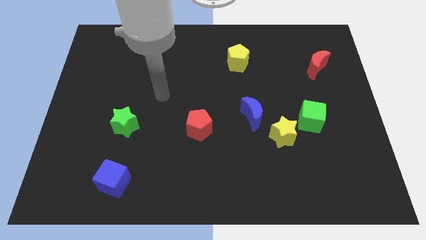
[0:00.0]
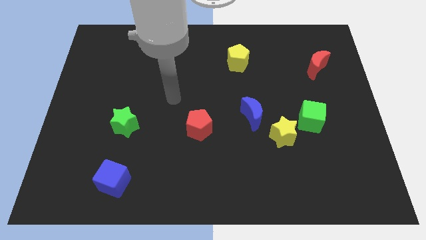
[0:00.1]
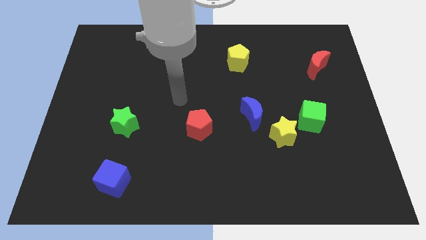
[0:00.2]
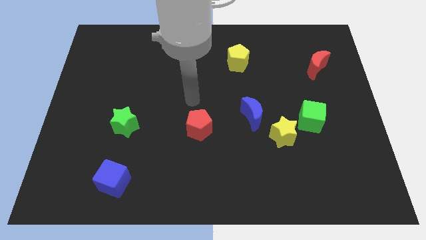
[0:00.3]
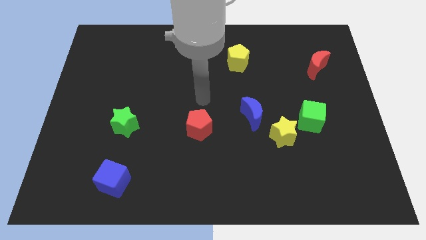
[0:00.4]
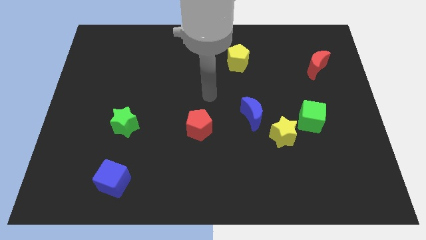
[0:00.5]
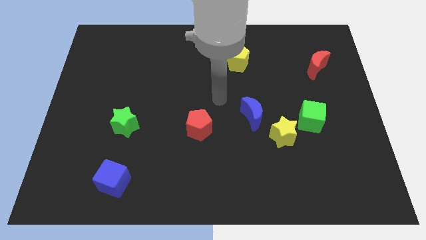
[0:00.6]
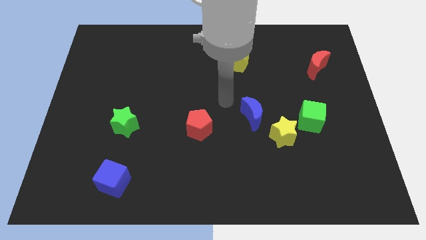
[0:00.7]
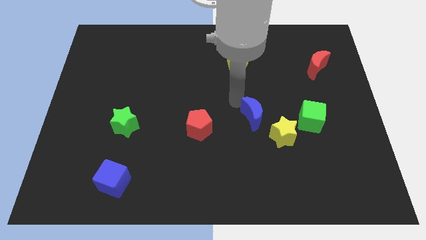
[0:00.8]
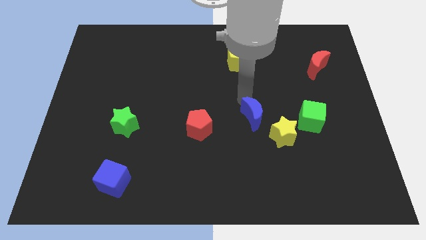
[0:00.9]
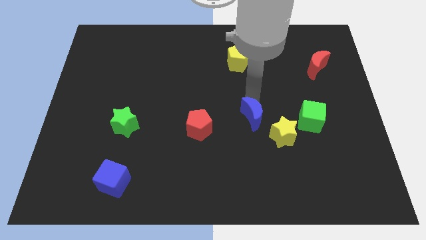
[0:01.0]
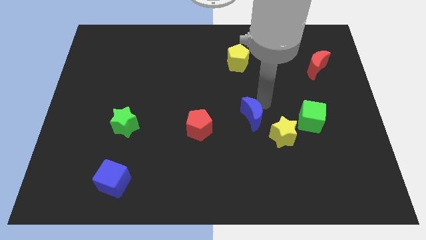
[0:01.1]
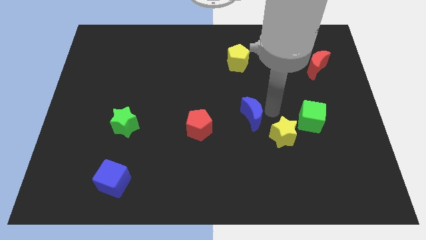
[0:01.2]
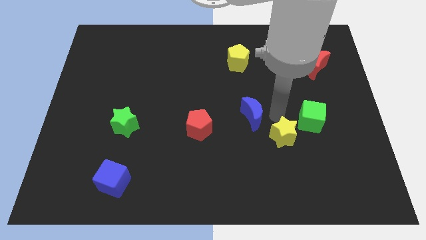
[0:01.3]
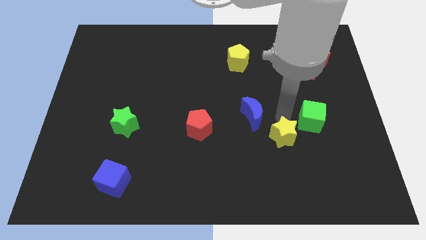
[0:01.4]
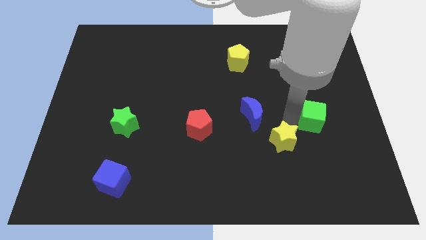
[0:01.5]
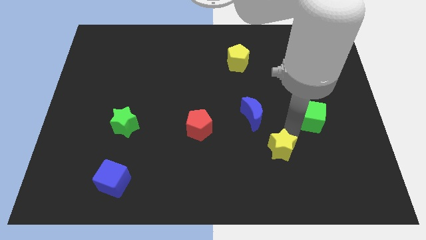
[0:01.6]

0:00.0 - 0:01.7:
separate the green cube from the yellow star

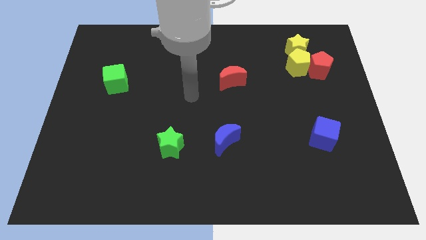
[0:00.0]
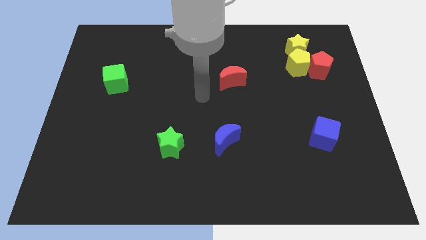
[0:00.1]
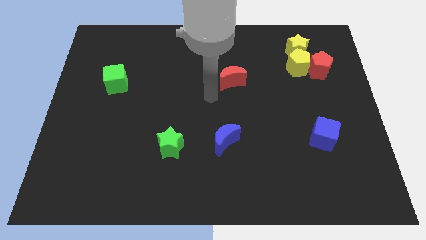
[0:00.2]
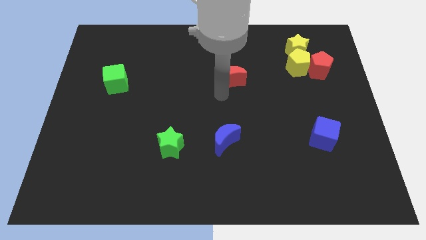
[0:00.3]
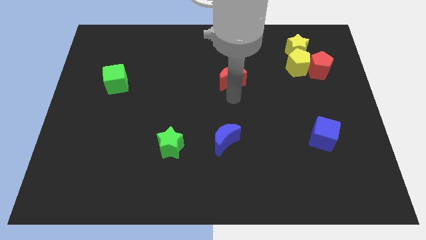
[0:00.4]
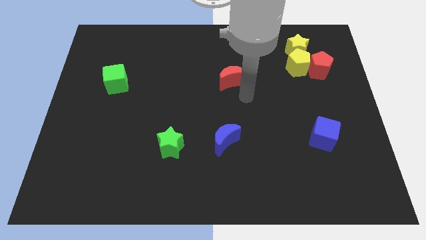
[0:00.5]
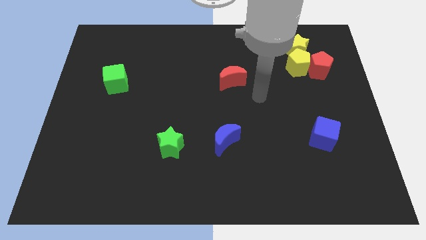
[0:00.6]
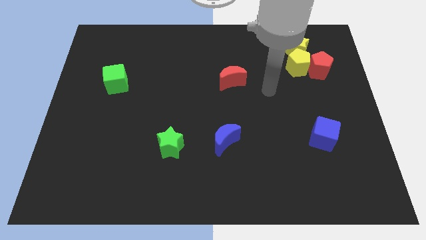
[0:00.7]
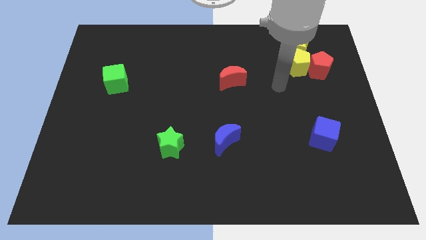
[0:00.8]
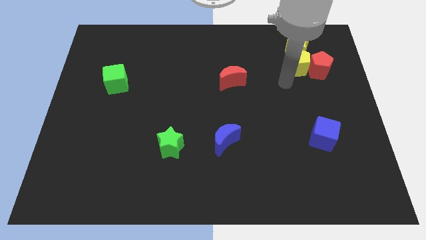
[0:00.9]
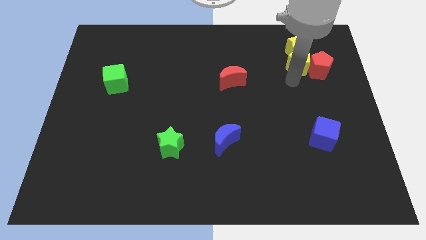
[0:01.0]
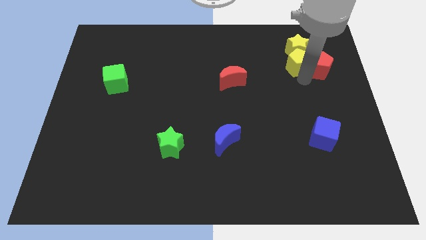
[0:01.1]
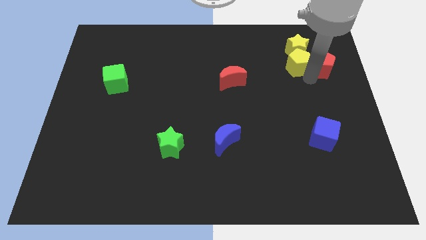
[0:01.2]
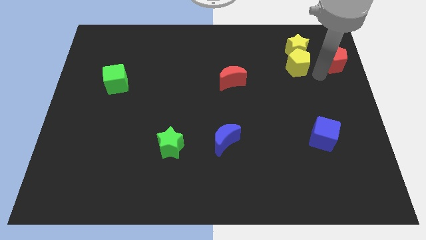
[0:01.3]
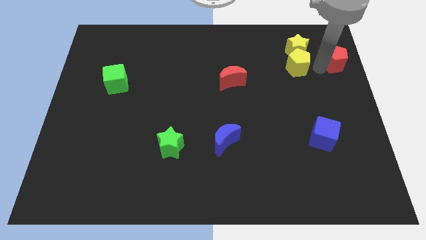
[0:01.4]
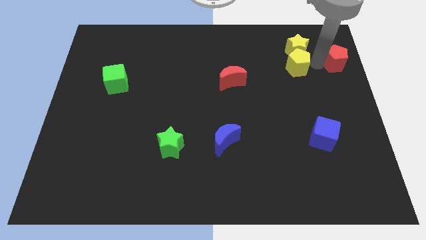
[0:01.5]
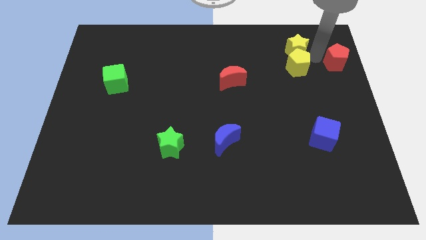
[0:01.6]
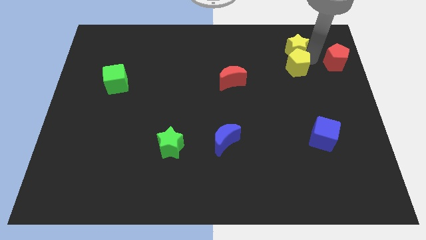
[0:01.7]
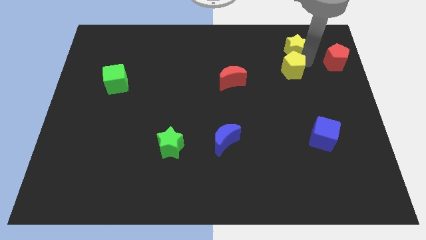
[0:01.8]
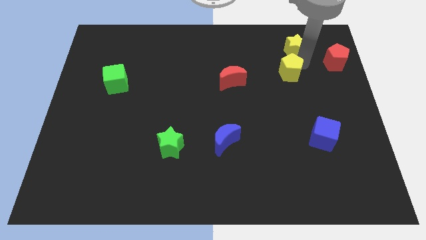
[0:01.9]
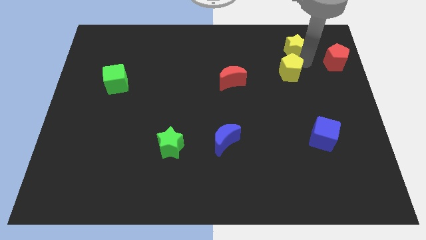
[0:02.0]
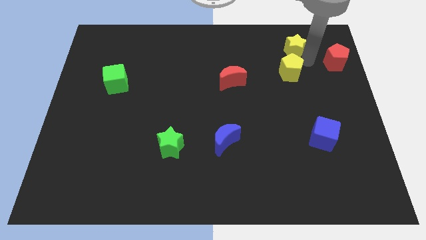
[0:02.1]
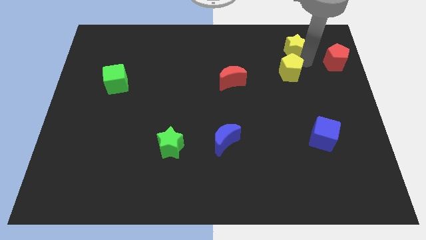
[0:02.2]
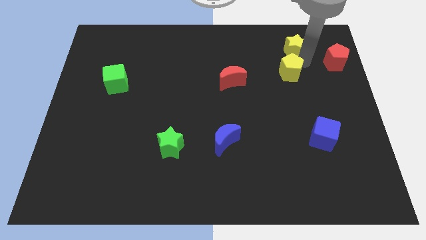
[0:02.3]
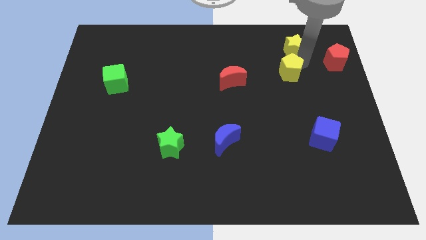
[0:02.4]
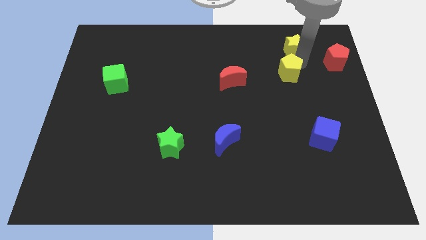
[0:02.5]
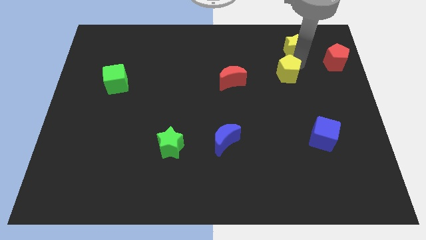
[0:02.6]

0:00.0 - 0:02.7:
move the yellow pentagon away from the yellow star and red pentagon

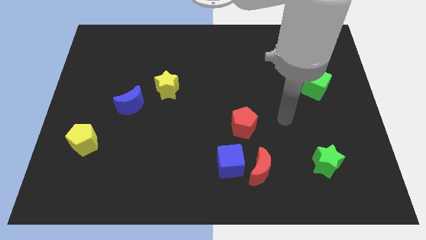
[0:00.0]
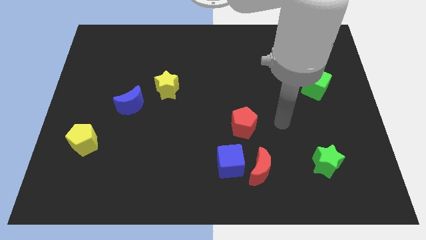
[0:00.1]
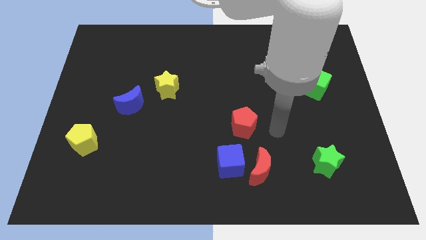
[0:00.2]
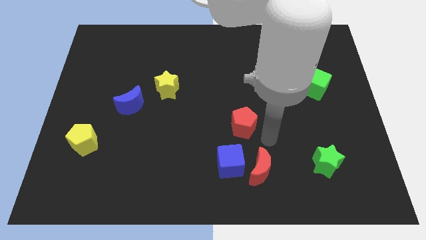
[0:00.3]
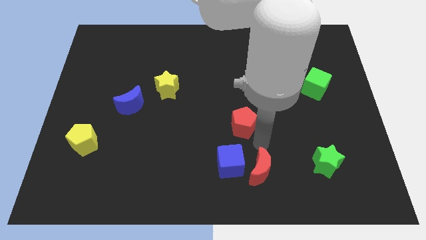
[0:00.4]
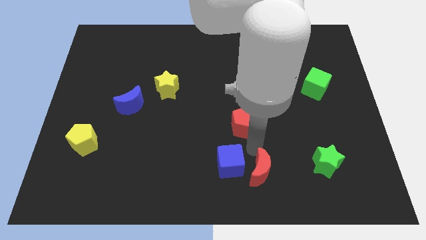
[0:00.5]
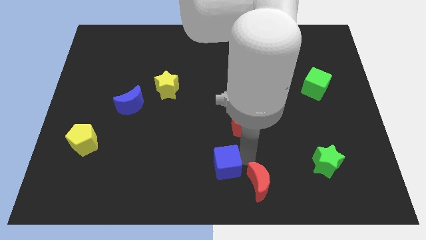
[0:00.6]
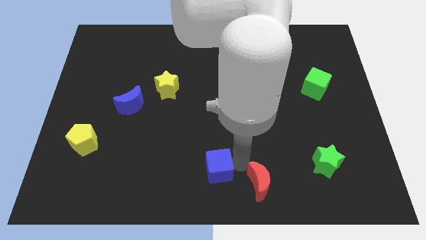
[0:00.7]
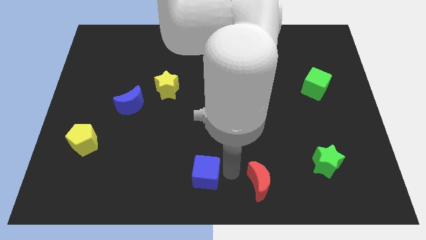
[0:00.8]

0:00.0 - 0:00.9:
move the red moon away from the blue cube

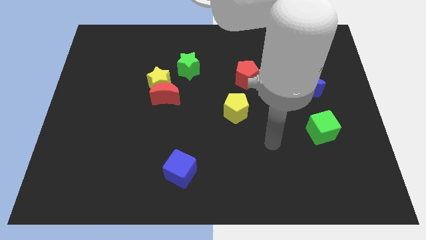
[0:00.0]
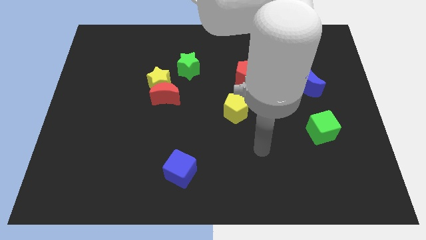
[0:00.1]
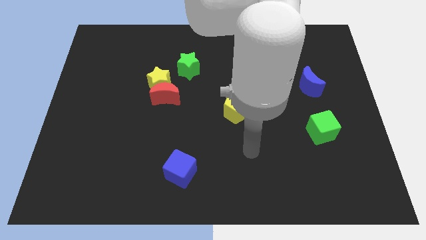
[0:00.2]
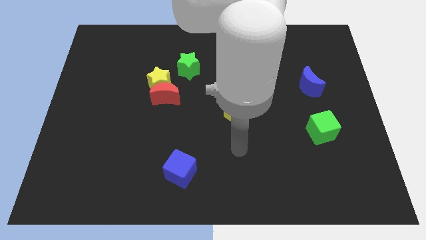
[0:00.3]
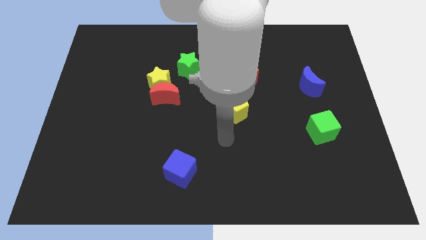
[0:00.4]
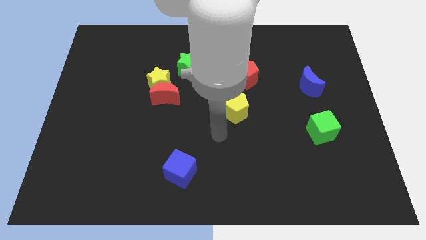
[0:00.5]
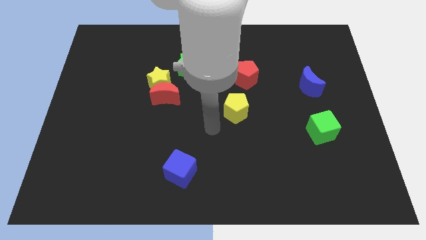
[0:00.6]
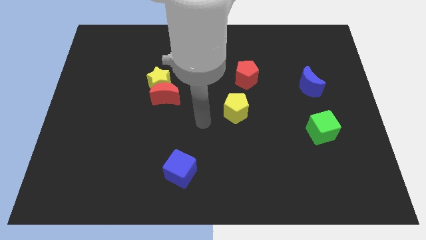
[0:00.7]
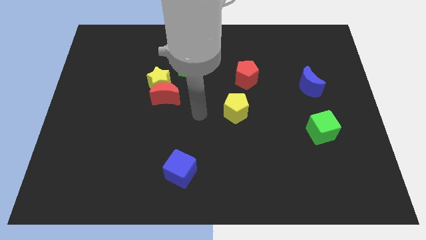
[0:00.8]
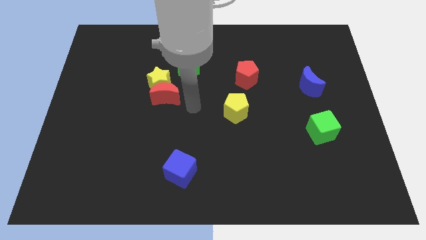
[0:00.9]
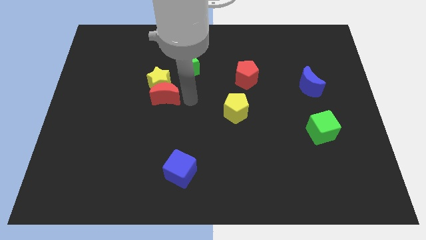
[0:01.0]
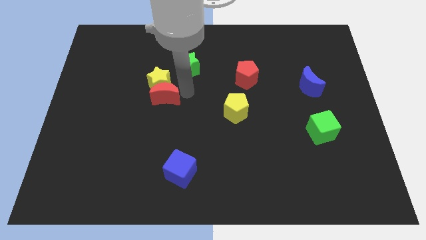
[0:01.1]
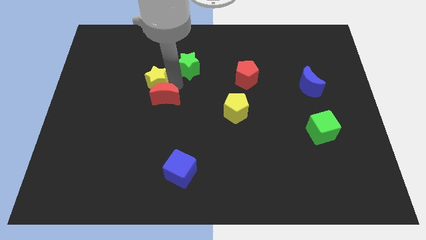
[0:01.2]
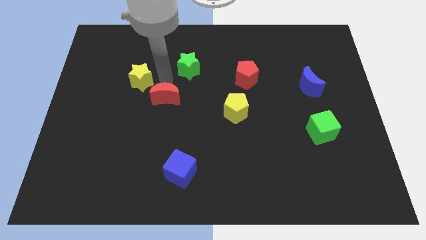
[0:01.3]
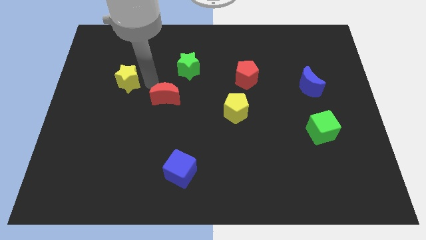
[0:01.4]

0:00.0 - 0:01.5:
pull the red moon apart from the yellow star

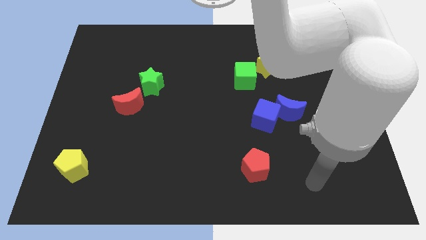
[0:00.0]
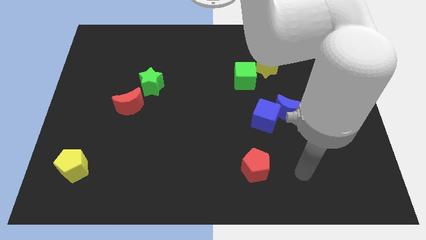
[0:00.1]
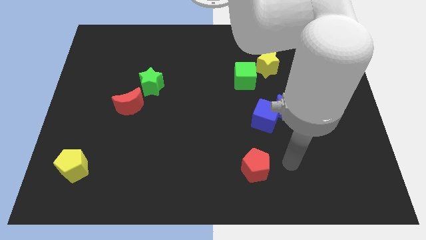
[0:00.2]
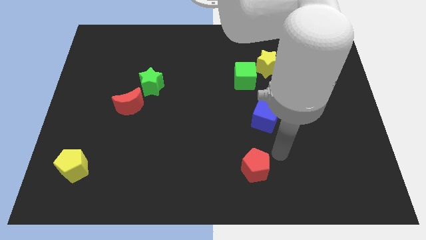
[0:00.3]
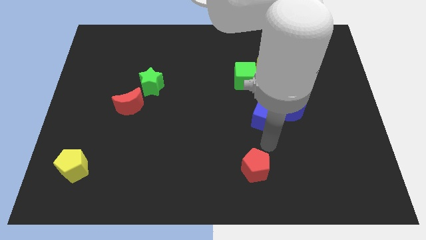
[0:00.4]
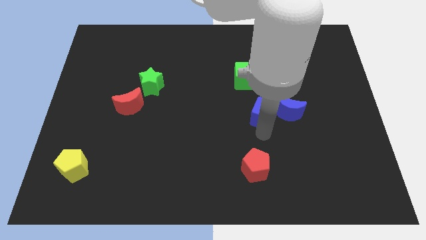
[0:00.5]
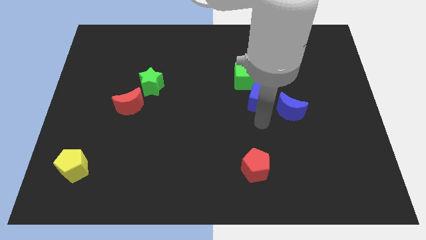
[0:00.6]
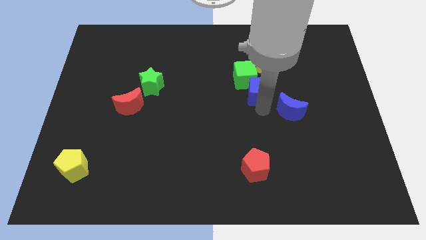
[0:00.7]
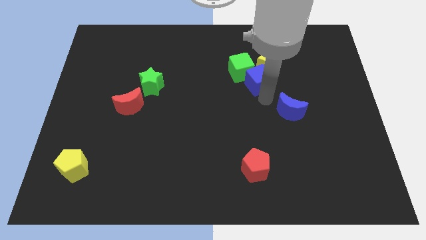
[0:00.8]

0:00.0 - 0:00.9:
move the blue moon away from the blue cube

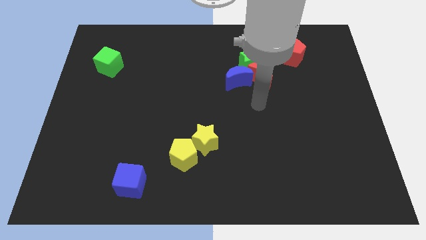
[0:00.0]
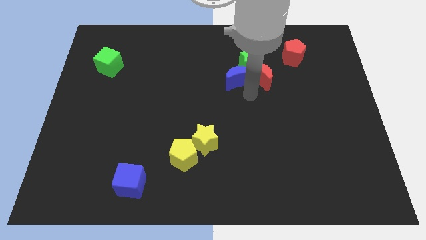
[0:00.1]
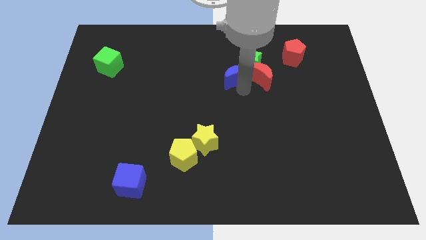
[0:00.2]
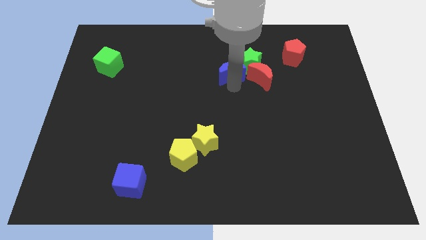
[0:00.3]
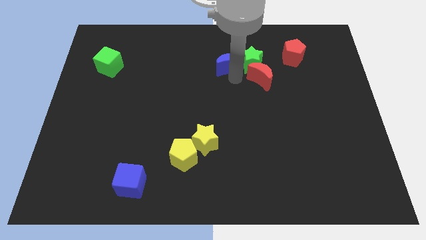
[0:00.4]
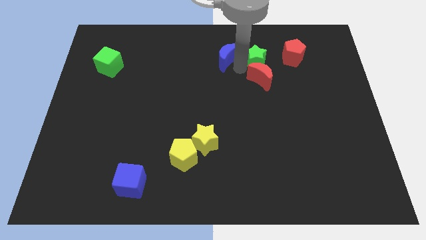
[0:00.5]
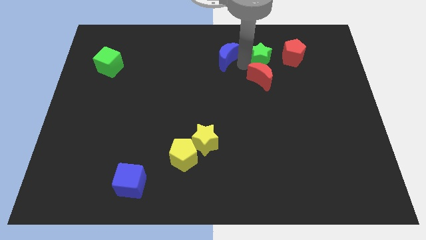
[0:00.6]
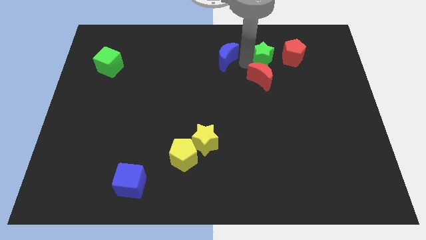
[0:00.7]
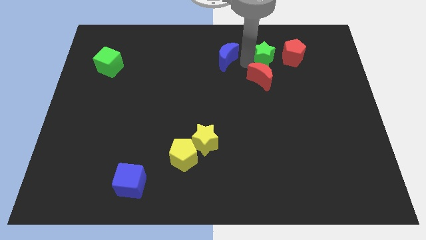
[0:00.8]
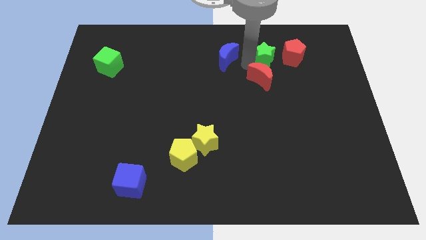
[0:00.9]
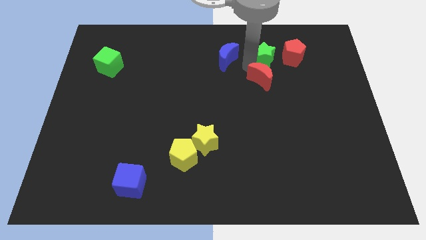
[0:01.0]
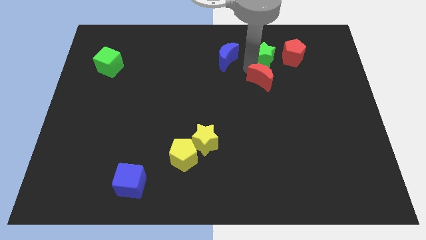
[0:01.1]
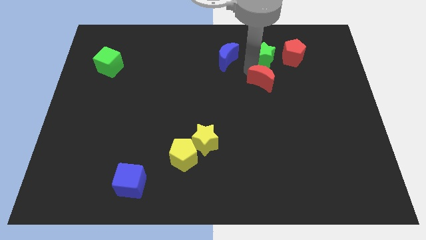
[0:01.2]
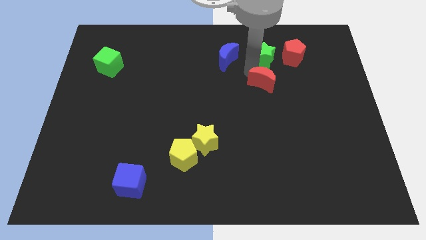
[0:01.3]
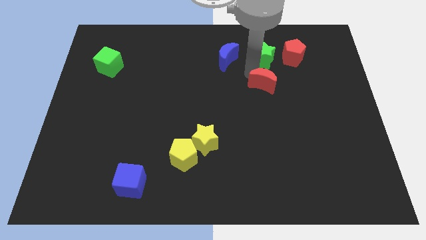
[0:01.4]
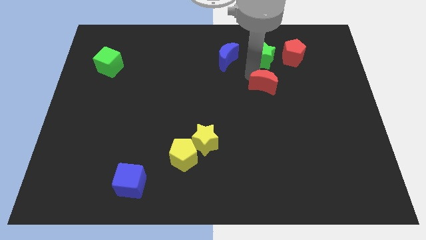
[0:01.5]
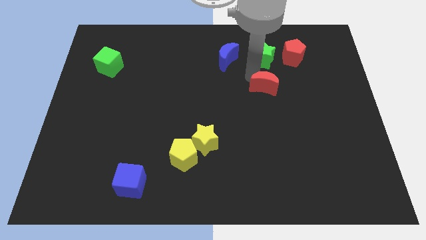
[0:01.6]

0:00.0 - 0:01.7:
separate the red moon from the green star and blue moon
